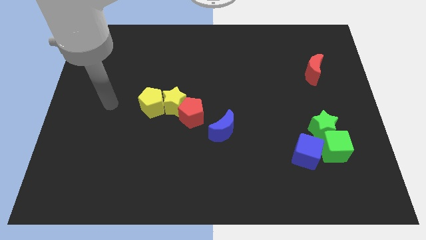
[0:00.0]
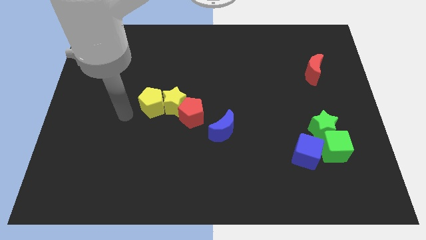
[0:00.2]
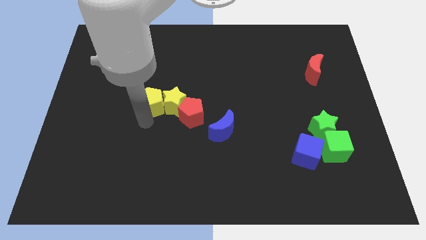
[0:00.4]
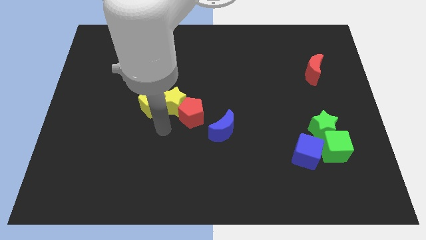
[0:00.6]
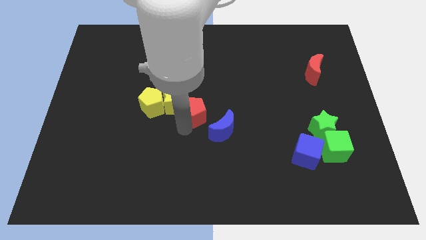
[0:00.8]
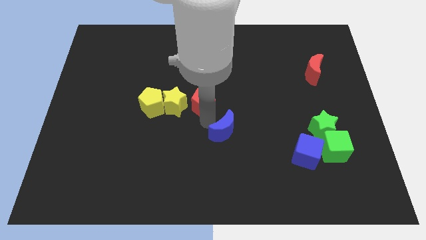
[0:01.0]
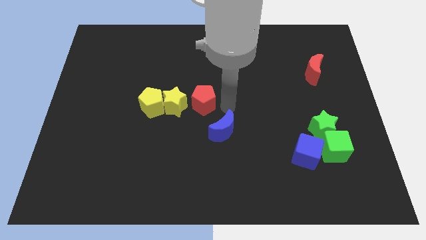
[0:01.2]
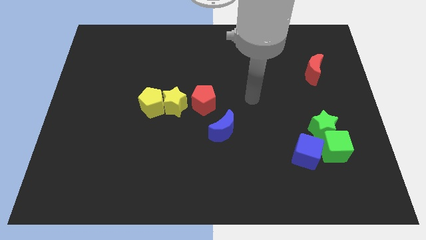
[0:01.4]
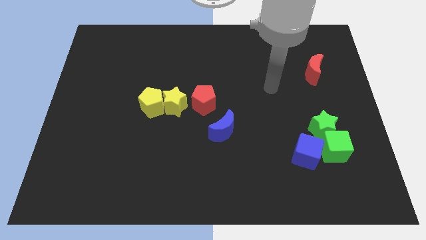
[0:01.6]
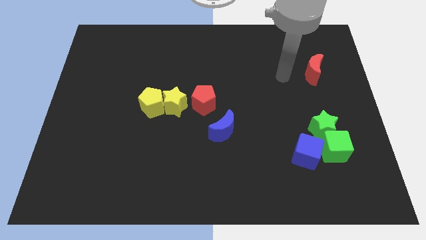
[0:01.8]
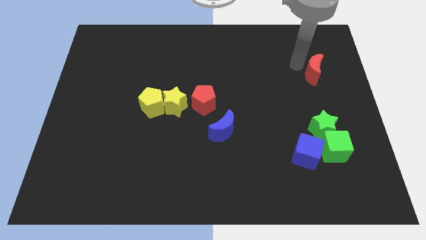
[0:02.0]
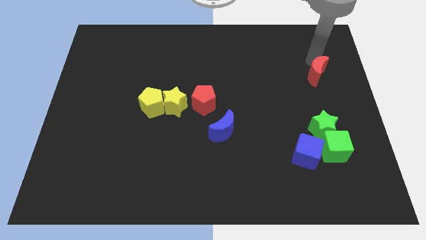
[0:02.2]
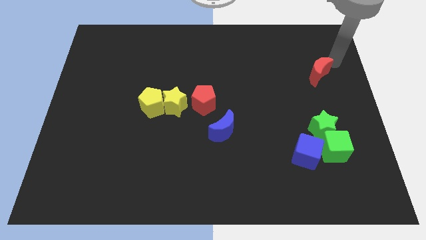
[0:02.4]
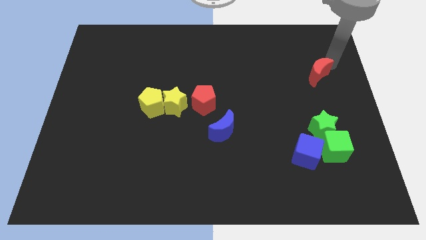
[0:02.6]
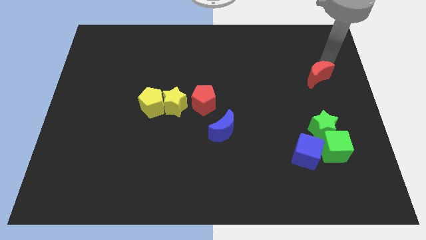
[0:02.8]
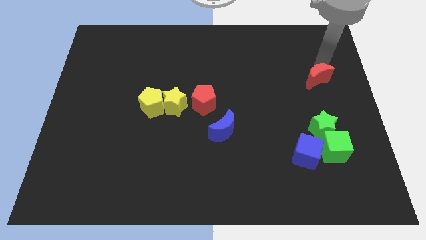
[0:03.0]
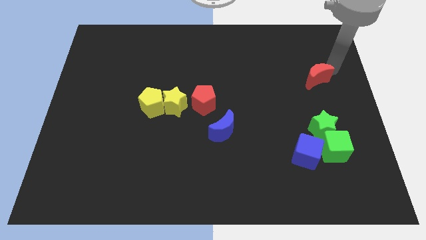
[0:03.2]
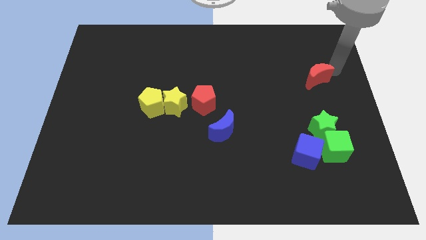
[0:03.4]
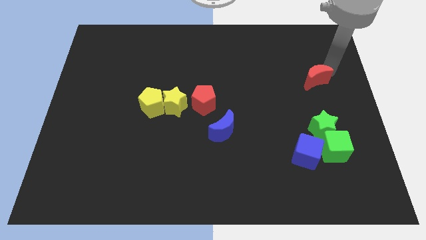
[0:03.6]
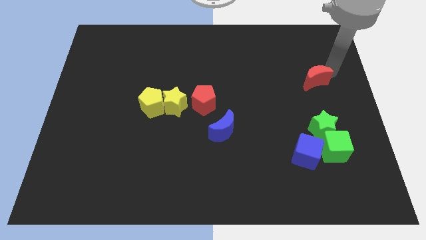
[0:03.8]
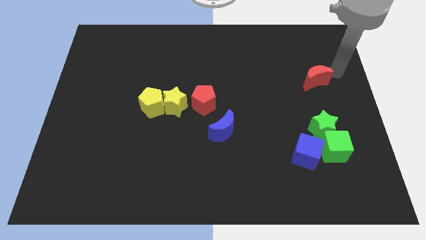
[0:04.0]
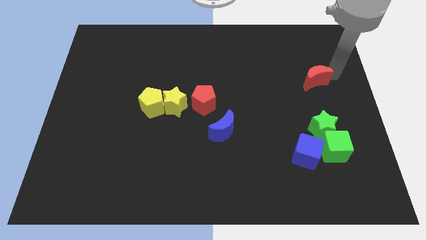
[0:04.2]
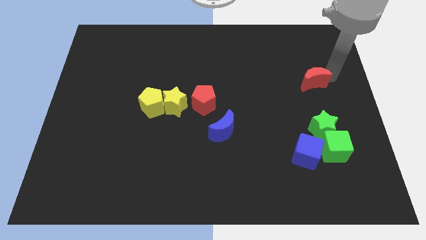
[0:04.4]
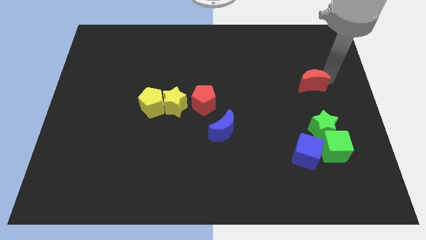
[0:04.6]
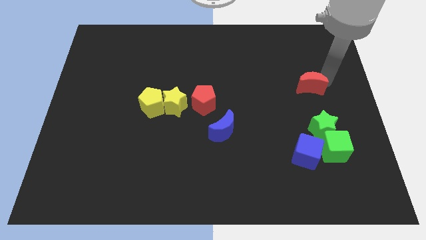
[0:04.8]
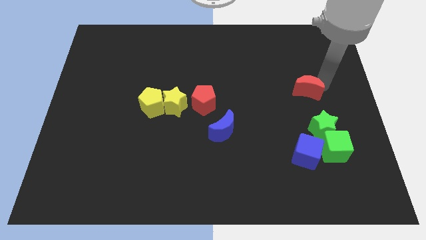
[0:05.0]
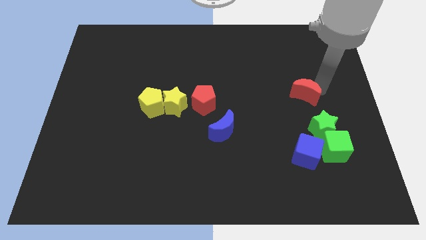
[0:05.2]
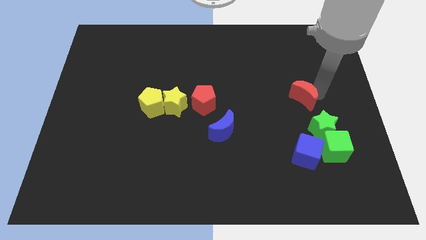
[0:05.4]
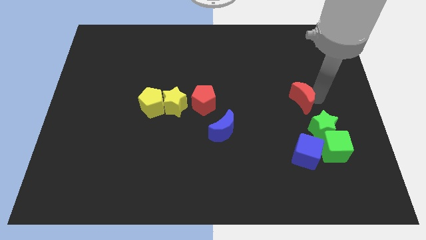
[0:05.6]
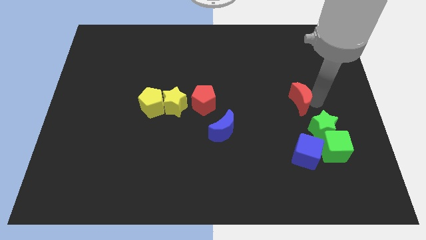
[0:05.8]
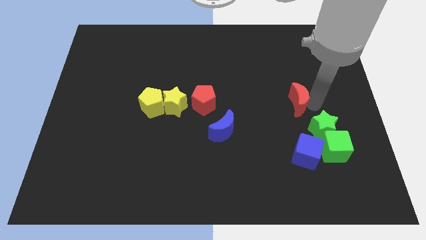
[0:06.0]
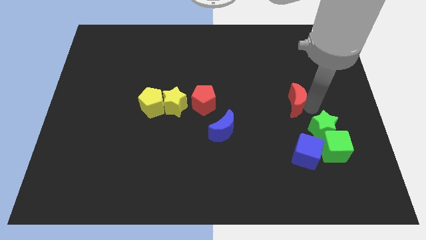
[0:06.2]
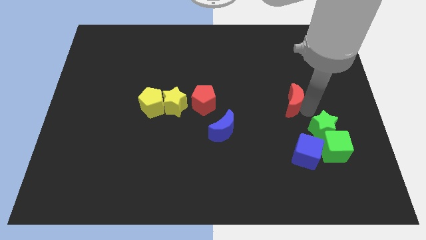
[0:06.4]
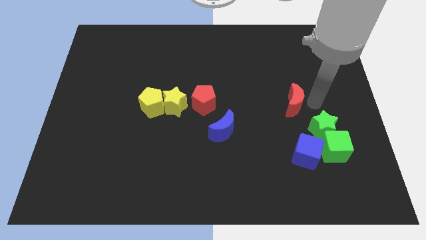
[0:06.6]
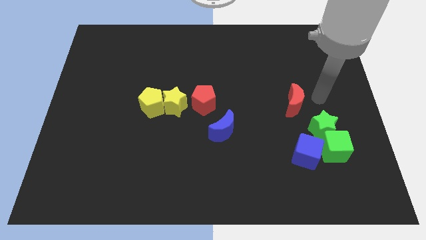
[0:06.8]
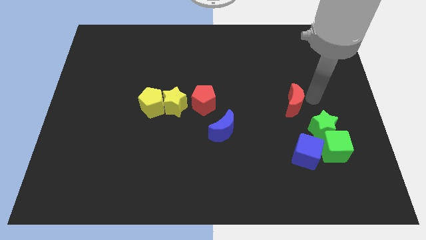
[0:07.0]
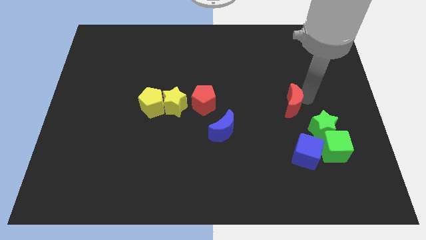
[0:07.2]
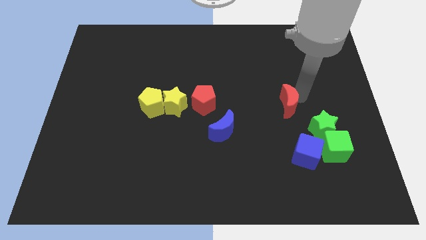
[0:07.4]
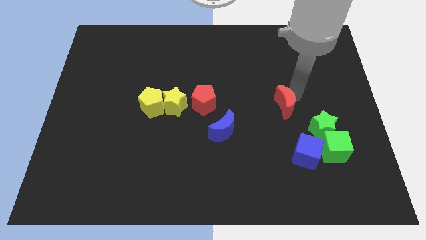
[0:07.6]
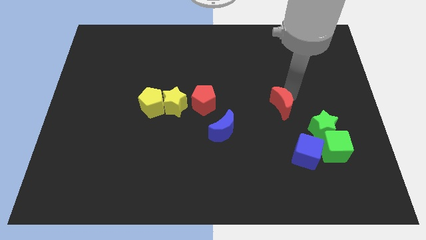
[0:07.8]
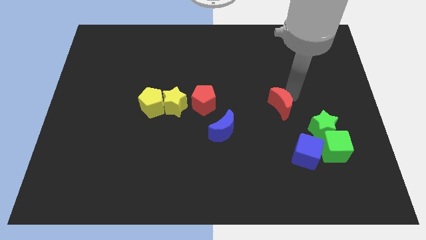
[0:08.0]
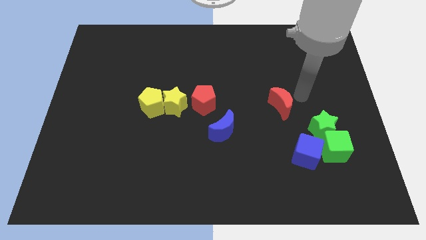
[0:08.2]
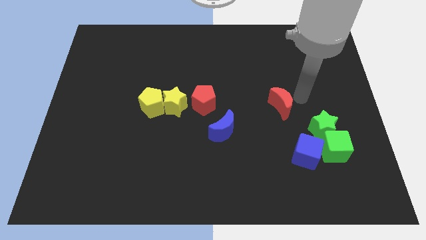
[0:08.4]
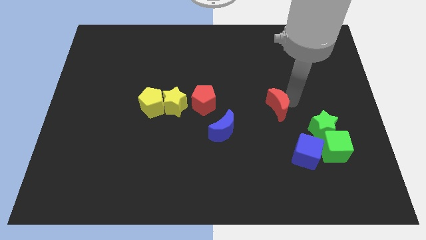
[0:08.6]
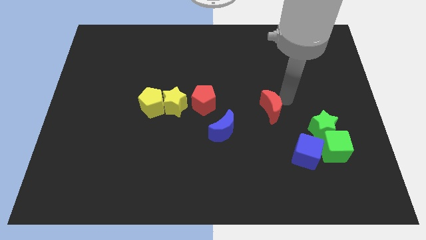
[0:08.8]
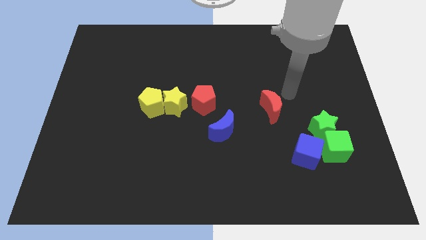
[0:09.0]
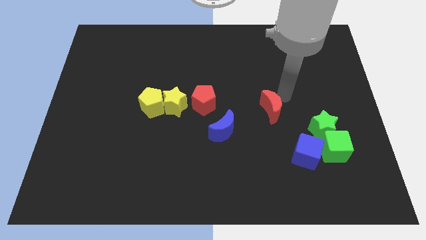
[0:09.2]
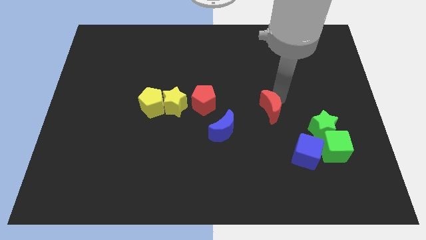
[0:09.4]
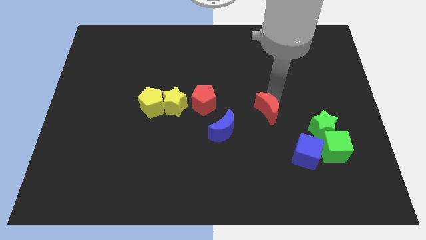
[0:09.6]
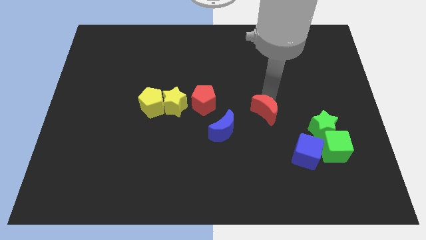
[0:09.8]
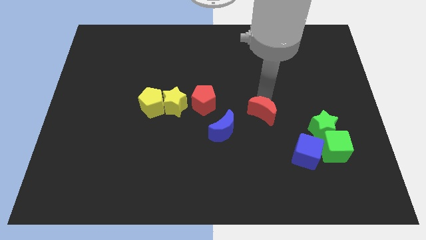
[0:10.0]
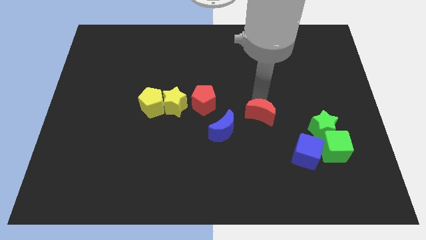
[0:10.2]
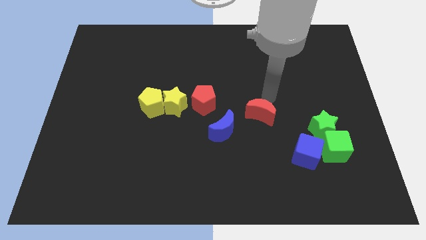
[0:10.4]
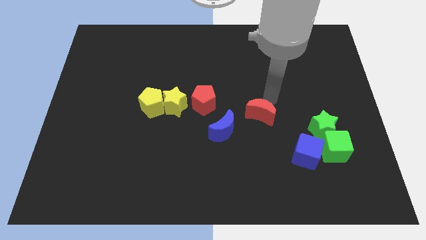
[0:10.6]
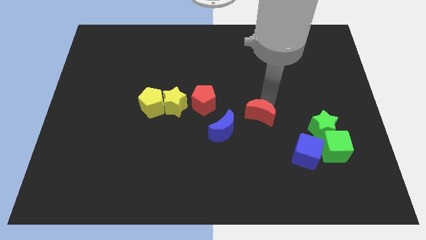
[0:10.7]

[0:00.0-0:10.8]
move the red moon down and to the left

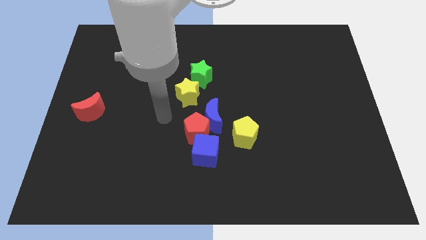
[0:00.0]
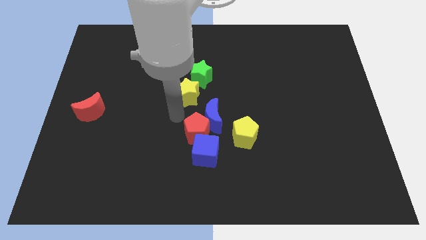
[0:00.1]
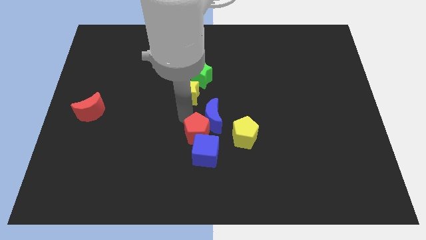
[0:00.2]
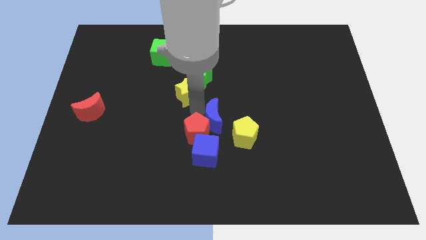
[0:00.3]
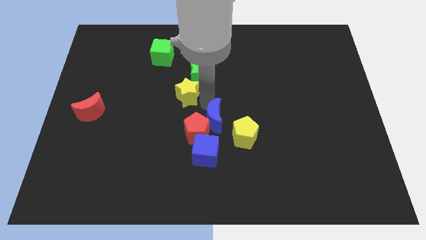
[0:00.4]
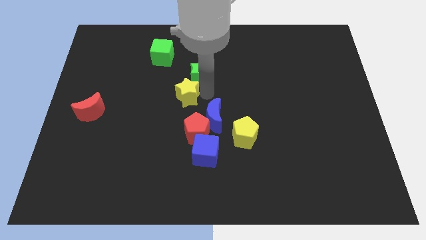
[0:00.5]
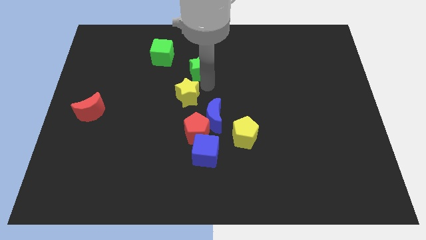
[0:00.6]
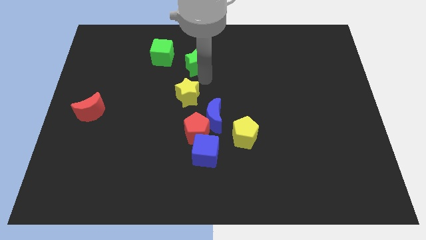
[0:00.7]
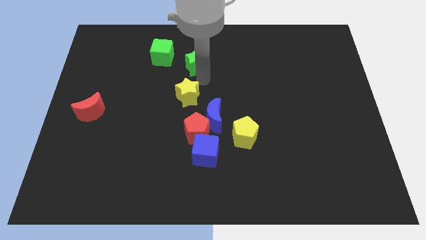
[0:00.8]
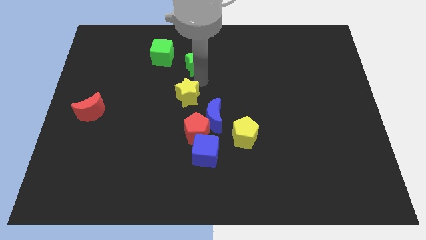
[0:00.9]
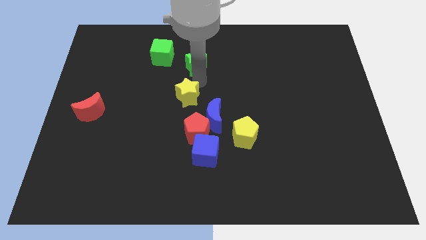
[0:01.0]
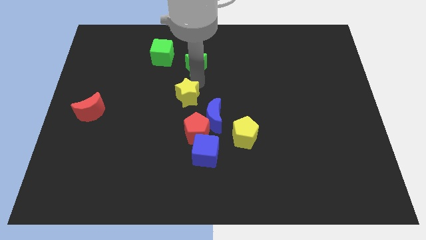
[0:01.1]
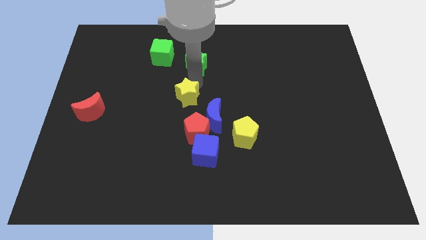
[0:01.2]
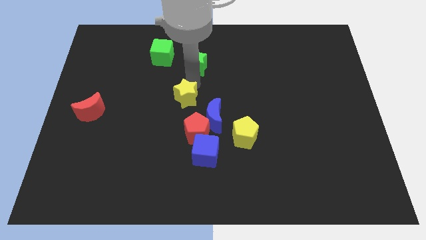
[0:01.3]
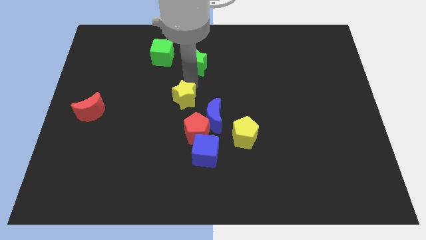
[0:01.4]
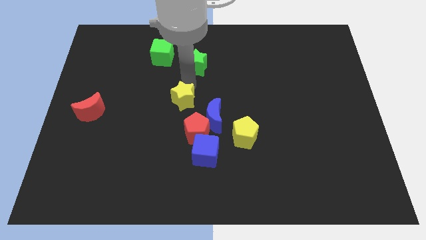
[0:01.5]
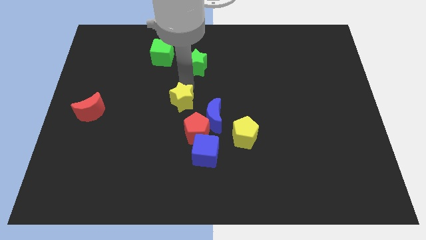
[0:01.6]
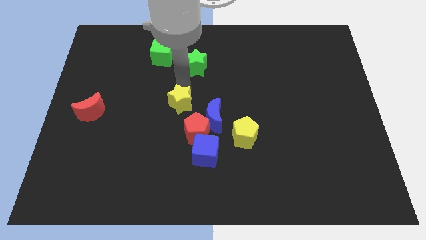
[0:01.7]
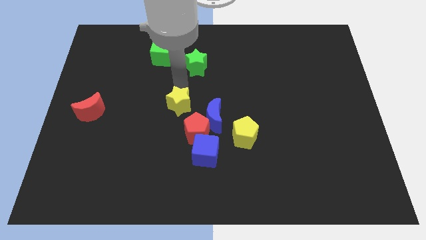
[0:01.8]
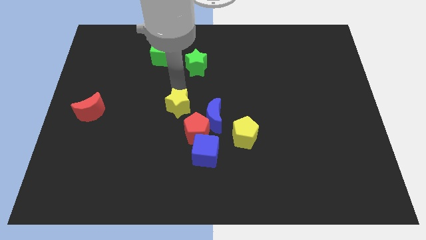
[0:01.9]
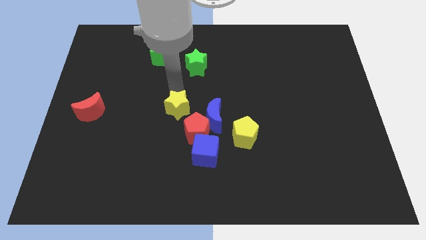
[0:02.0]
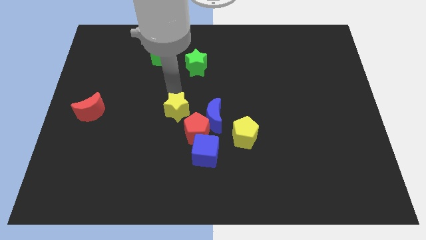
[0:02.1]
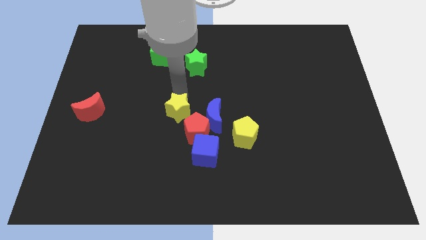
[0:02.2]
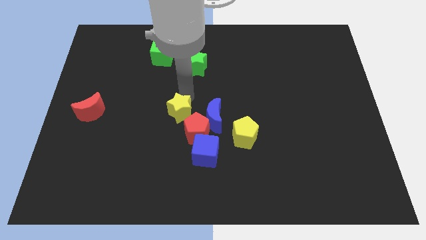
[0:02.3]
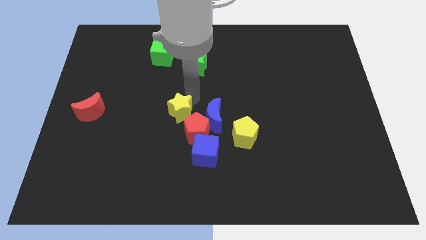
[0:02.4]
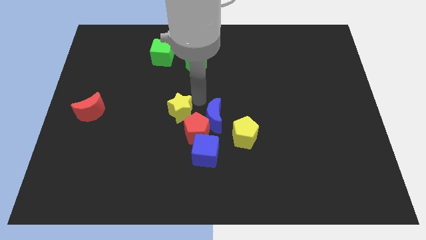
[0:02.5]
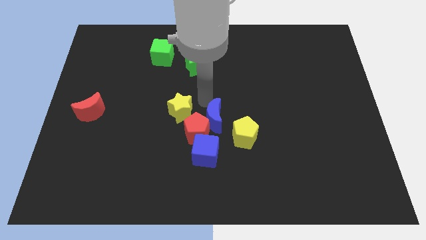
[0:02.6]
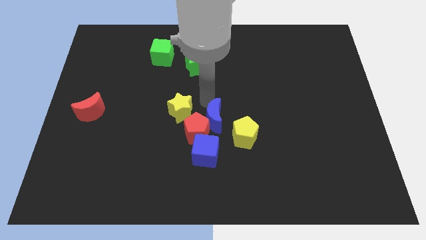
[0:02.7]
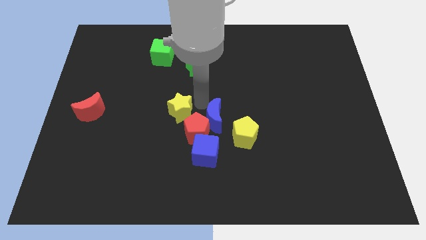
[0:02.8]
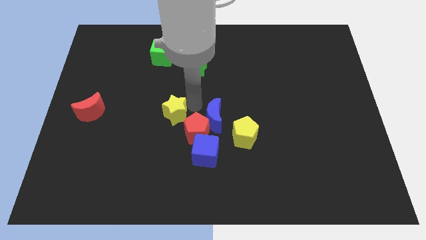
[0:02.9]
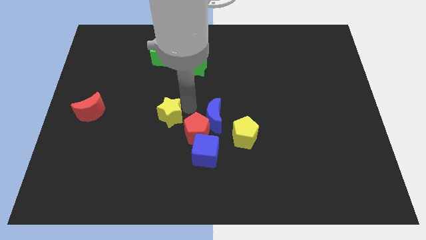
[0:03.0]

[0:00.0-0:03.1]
slide the yellow star a little down and to the left
